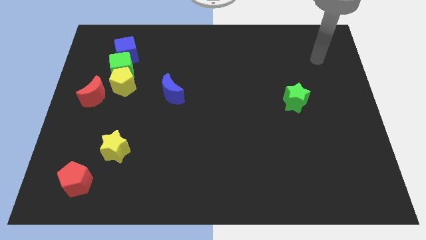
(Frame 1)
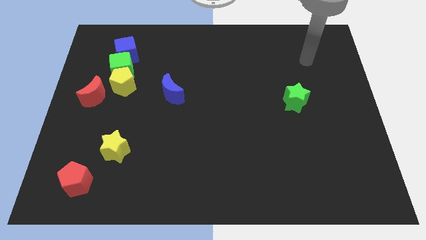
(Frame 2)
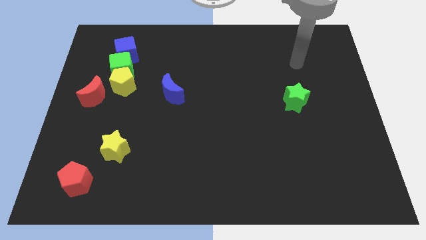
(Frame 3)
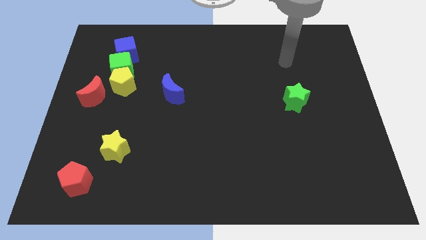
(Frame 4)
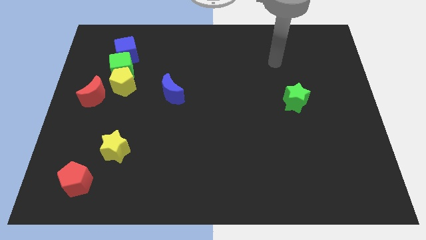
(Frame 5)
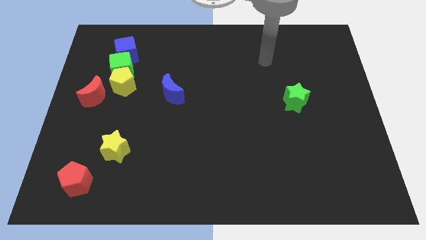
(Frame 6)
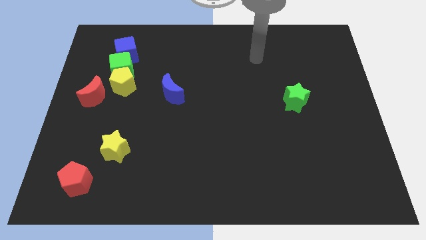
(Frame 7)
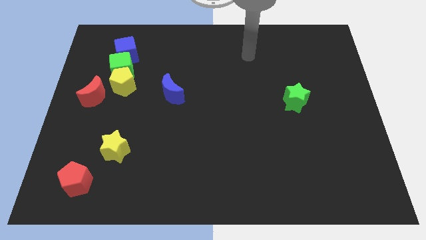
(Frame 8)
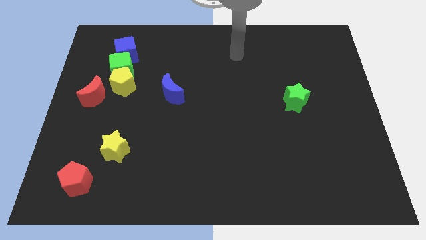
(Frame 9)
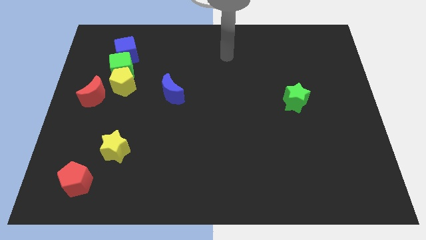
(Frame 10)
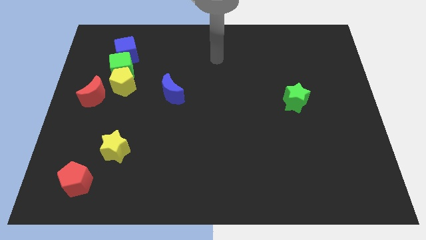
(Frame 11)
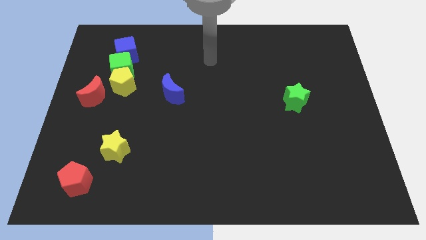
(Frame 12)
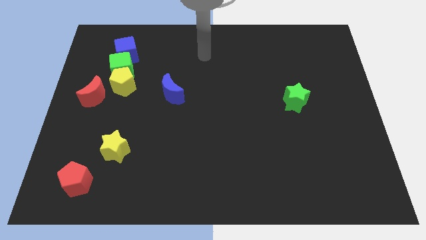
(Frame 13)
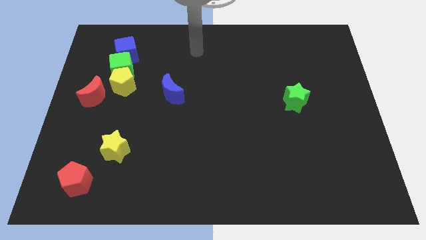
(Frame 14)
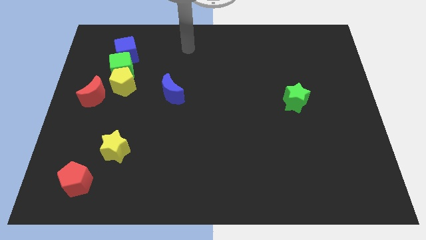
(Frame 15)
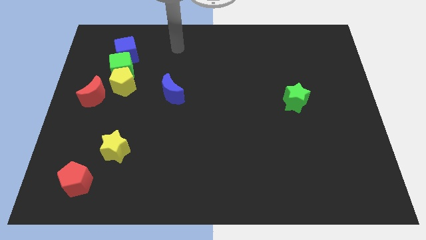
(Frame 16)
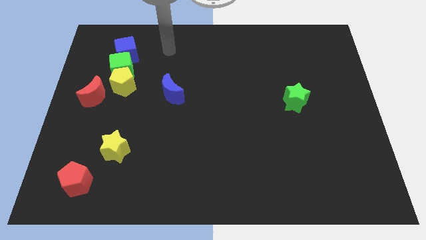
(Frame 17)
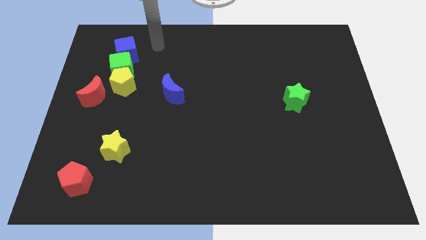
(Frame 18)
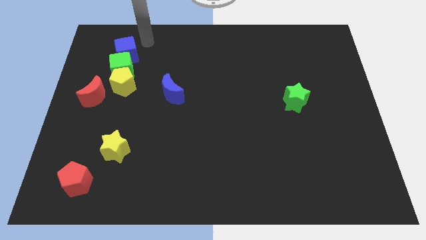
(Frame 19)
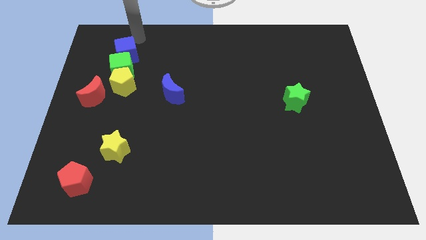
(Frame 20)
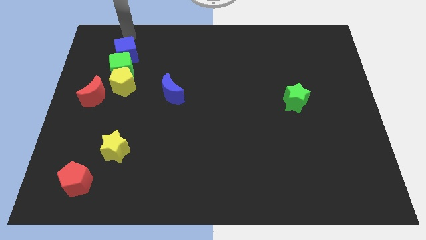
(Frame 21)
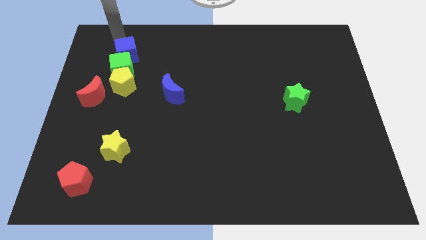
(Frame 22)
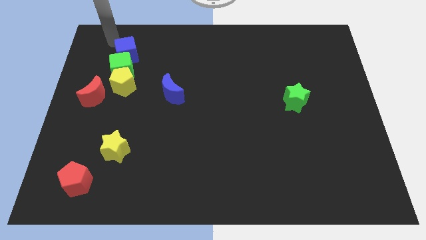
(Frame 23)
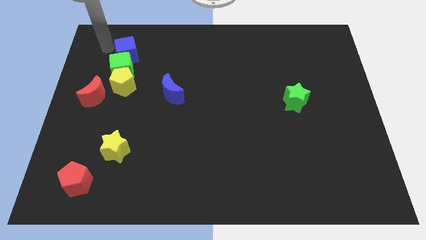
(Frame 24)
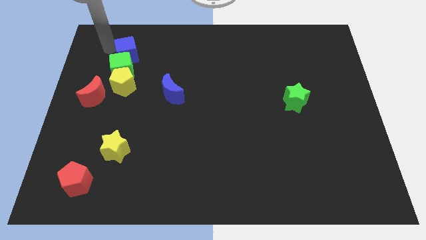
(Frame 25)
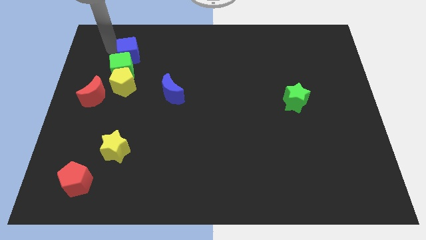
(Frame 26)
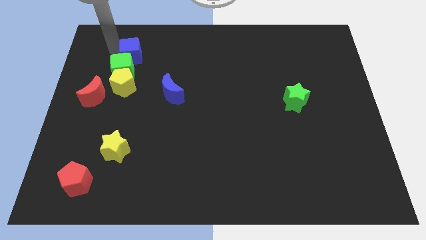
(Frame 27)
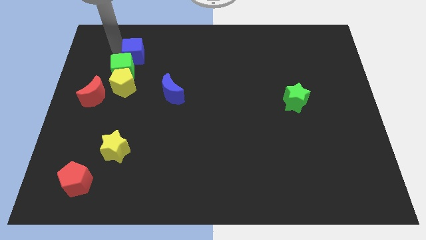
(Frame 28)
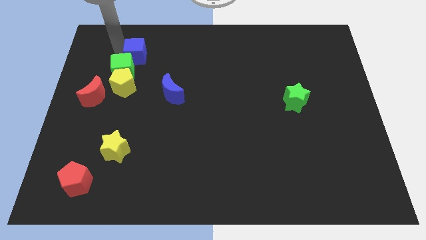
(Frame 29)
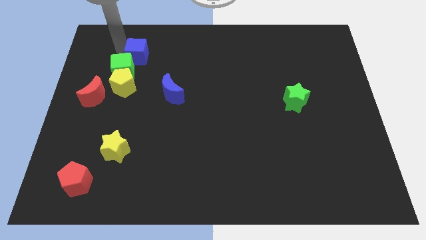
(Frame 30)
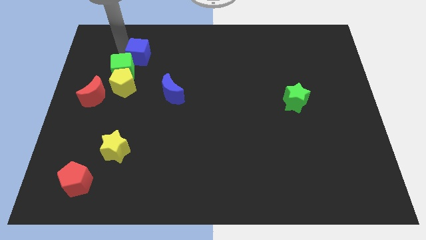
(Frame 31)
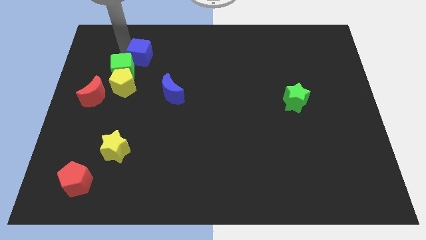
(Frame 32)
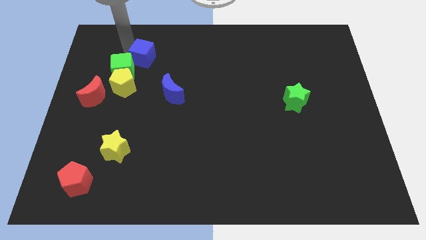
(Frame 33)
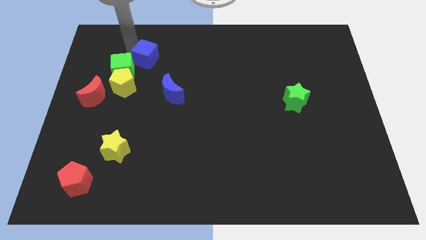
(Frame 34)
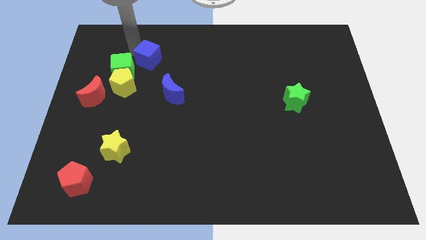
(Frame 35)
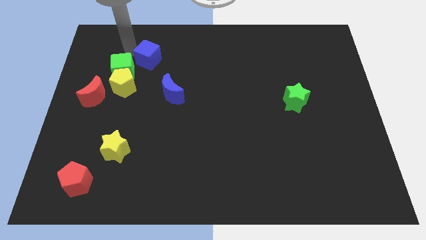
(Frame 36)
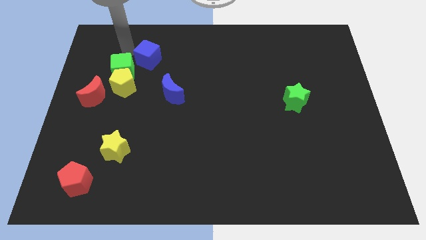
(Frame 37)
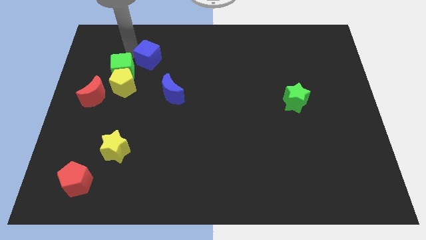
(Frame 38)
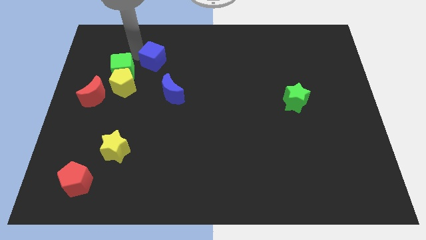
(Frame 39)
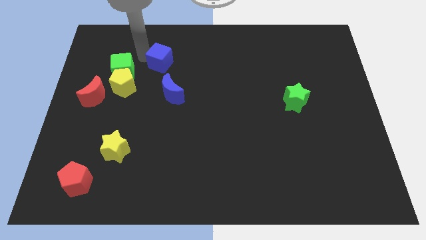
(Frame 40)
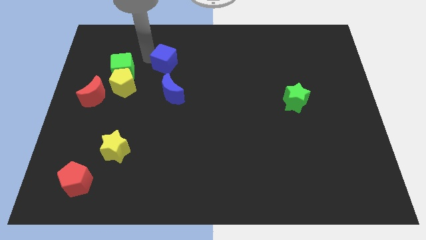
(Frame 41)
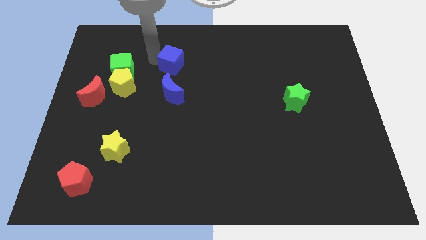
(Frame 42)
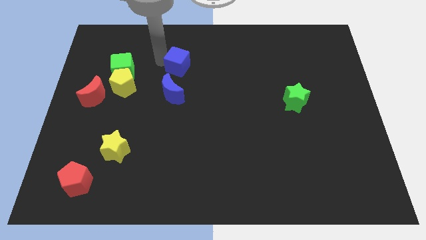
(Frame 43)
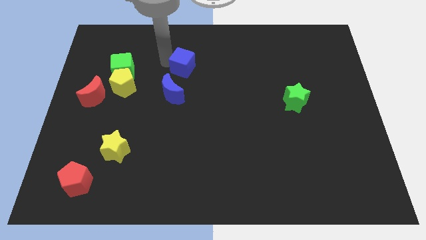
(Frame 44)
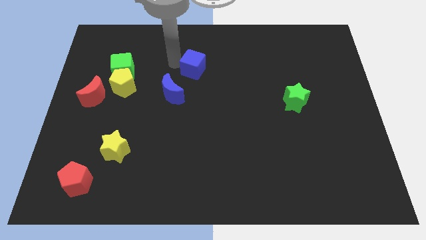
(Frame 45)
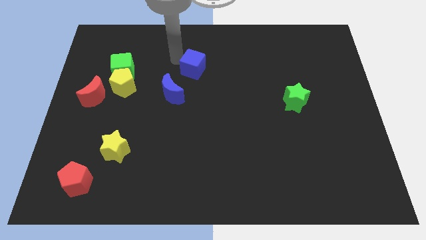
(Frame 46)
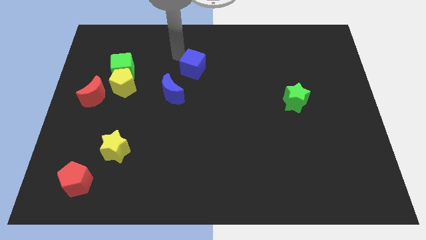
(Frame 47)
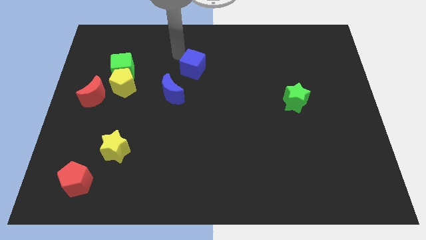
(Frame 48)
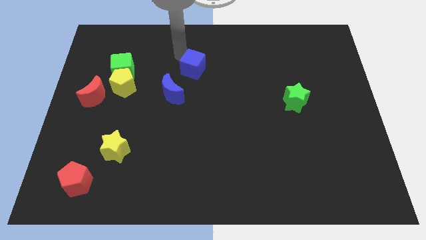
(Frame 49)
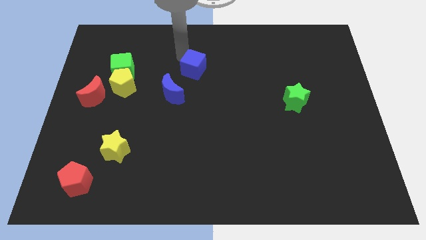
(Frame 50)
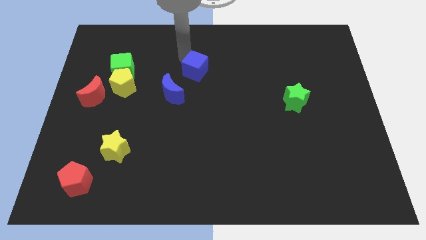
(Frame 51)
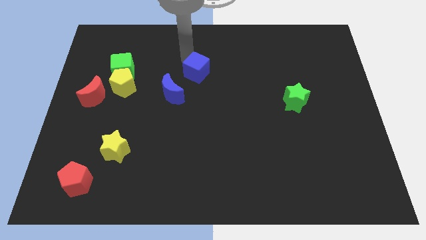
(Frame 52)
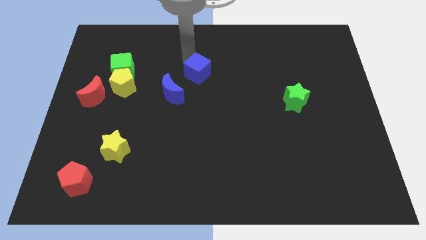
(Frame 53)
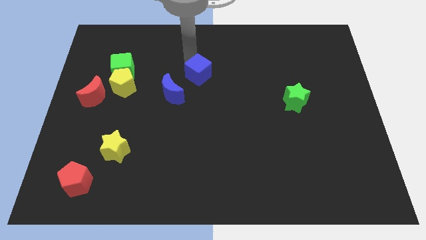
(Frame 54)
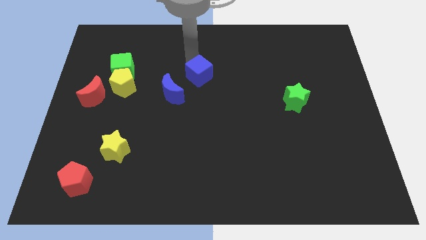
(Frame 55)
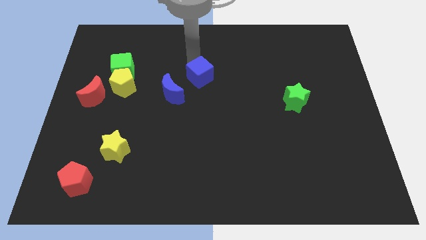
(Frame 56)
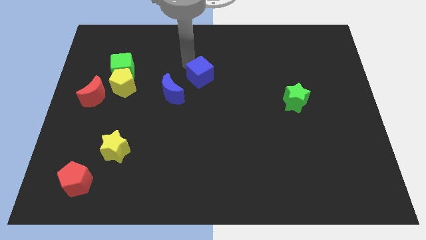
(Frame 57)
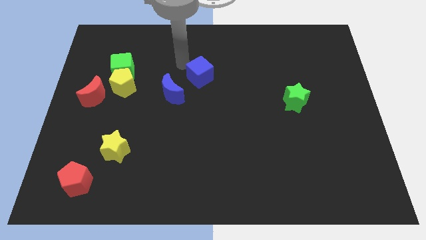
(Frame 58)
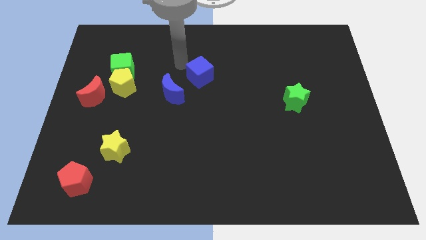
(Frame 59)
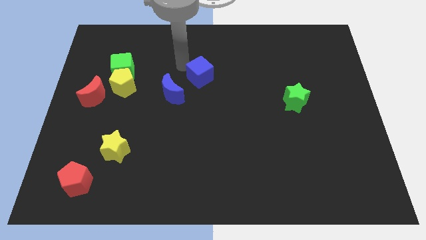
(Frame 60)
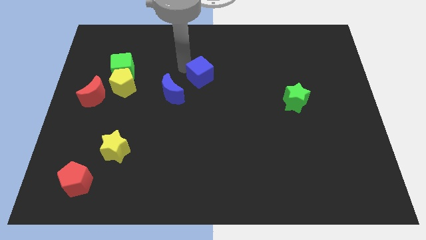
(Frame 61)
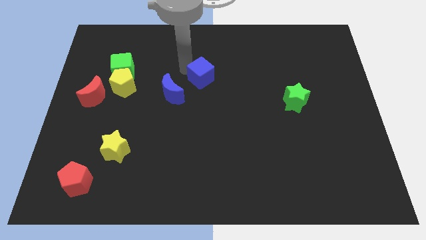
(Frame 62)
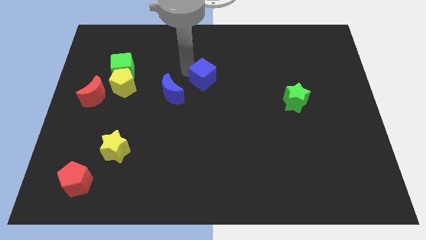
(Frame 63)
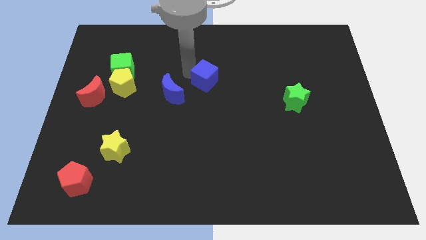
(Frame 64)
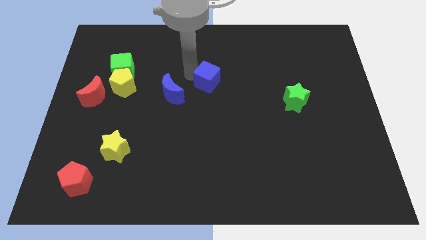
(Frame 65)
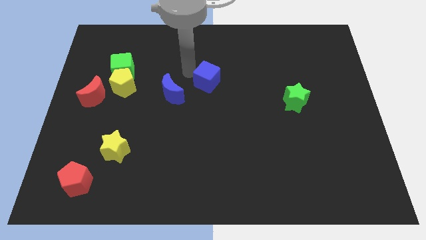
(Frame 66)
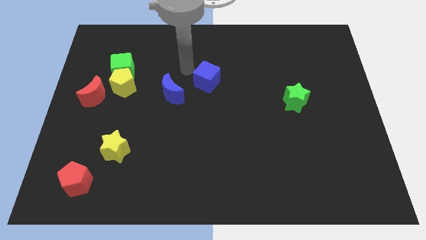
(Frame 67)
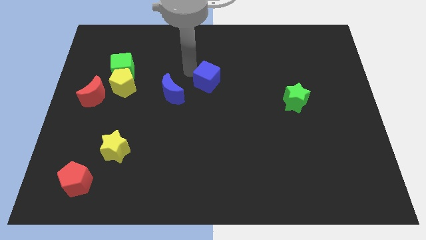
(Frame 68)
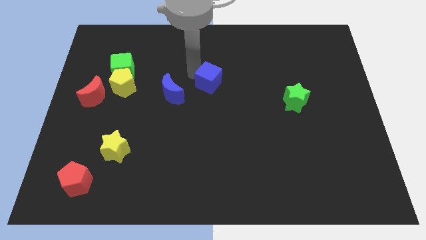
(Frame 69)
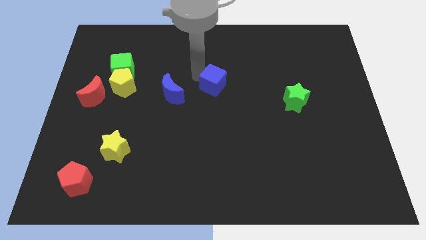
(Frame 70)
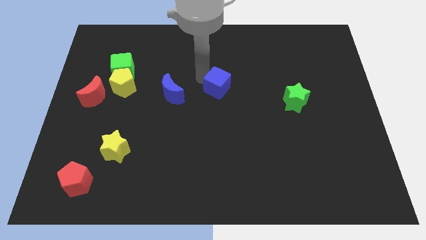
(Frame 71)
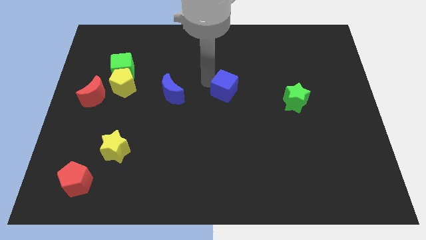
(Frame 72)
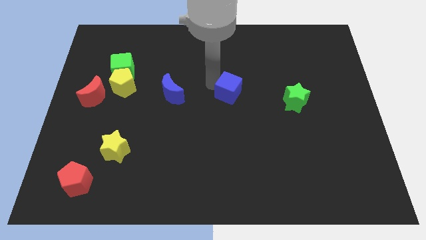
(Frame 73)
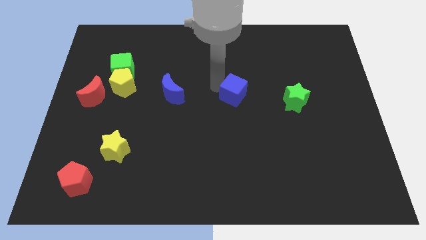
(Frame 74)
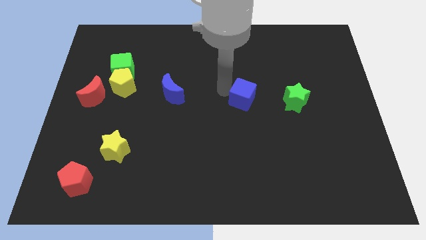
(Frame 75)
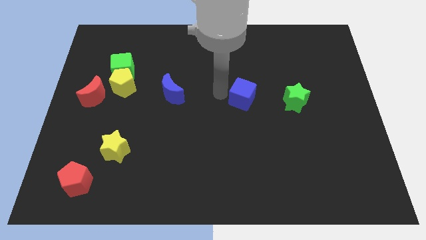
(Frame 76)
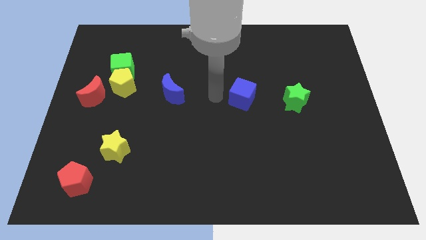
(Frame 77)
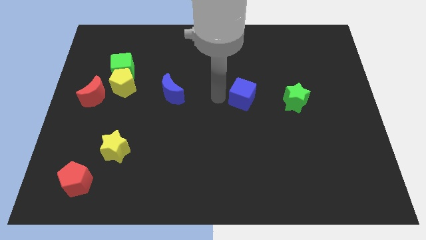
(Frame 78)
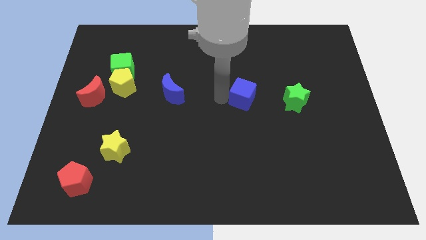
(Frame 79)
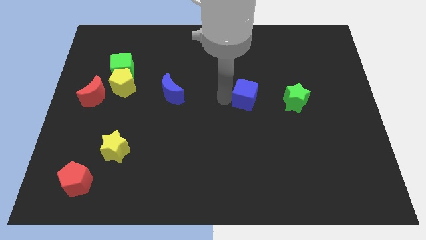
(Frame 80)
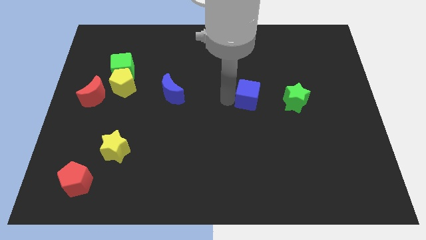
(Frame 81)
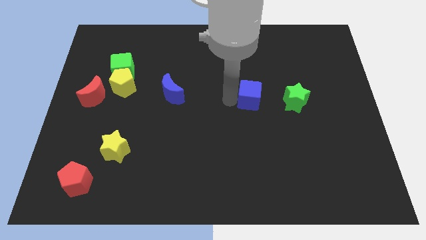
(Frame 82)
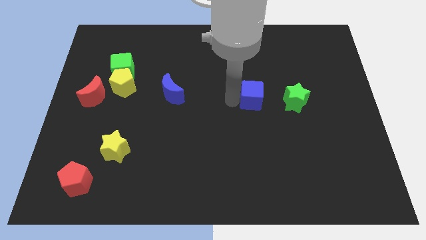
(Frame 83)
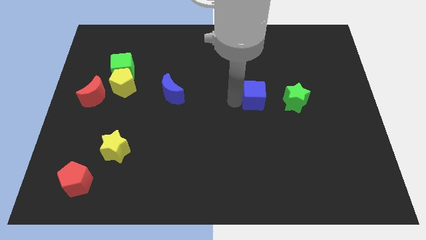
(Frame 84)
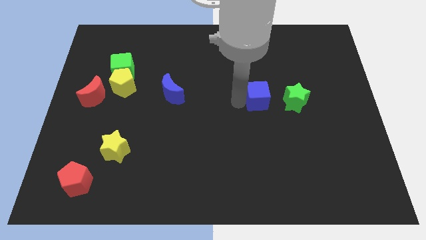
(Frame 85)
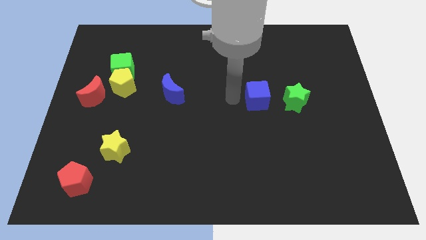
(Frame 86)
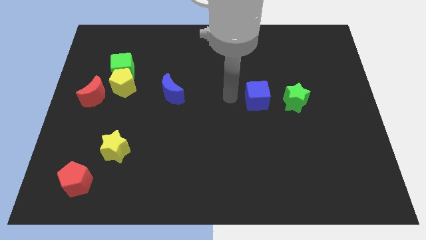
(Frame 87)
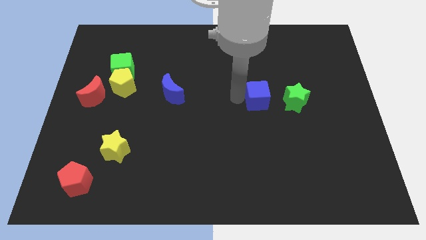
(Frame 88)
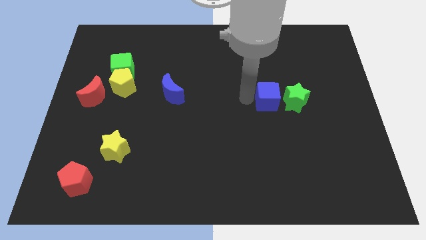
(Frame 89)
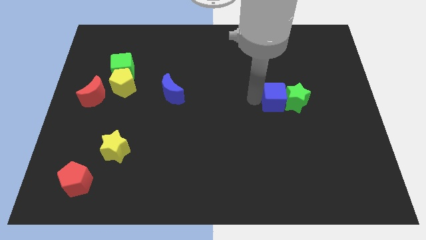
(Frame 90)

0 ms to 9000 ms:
push the blue cube close to the green star
